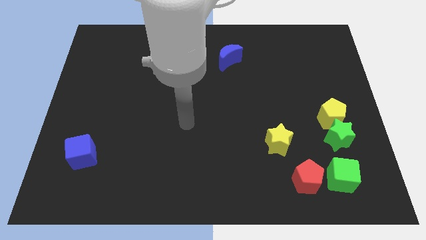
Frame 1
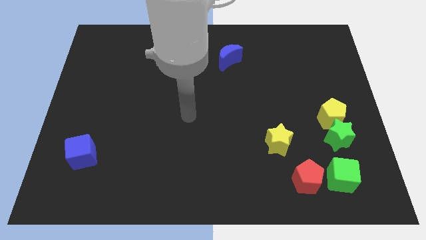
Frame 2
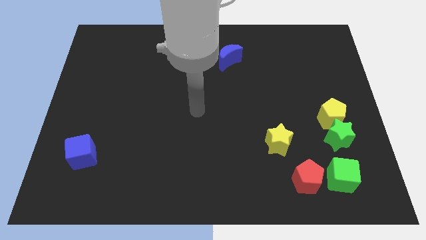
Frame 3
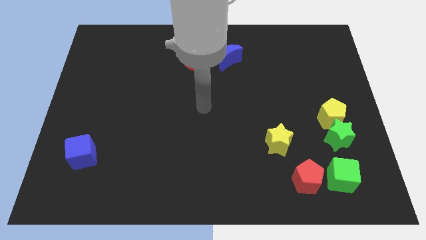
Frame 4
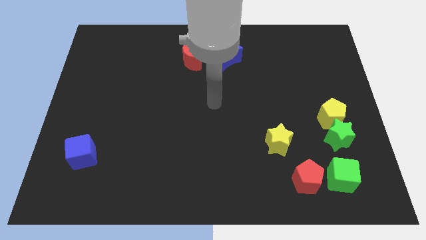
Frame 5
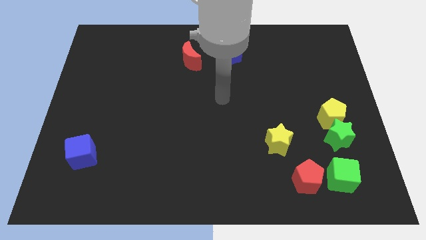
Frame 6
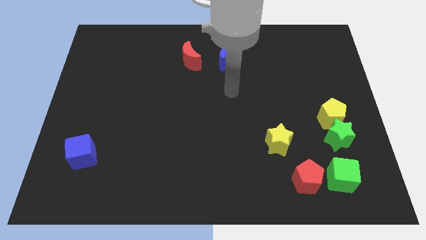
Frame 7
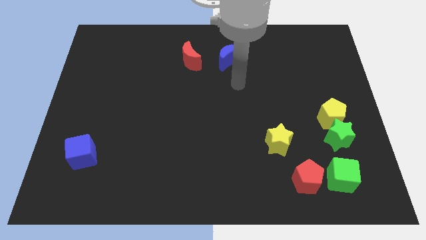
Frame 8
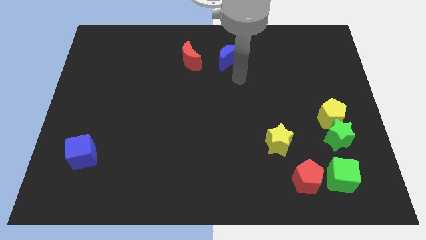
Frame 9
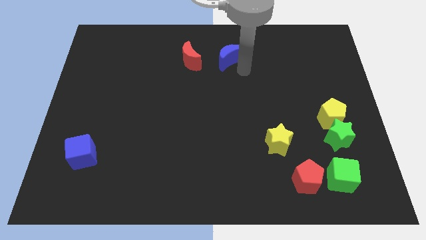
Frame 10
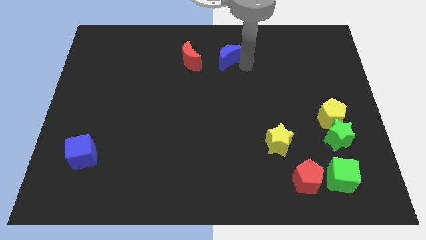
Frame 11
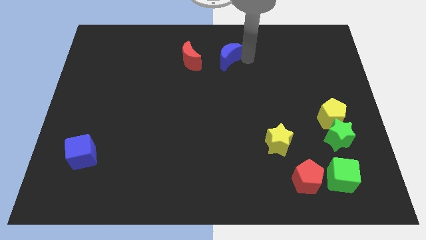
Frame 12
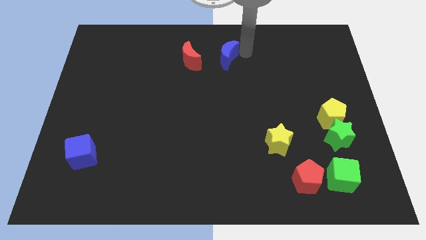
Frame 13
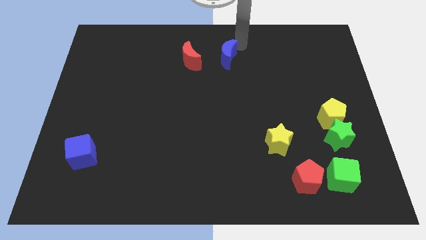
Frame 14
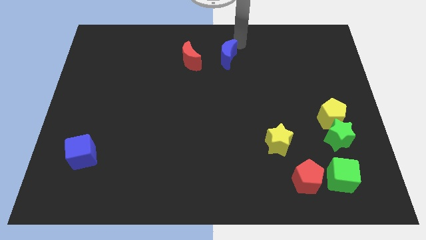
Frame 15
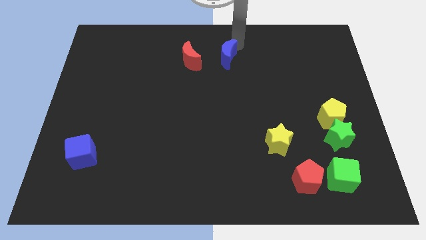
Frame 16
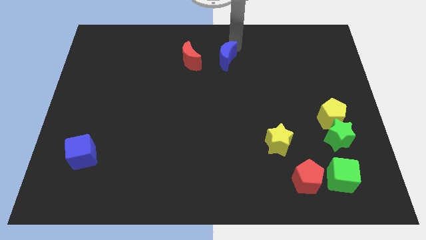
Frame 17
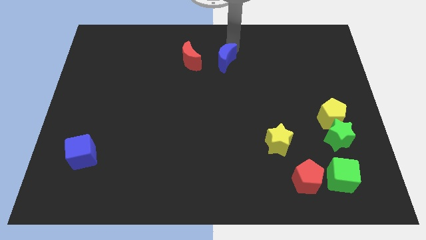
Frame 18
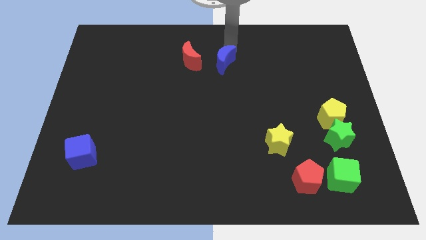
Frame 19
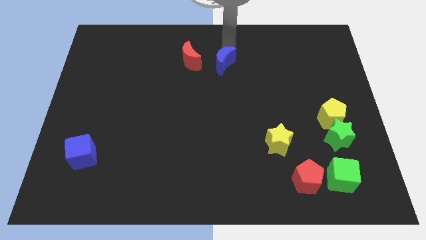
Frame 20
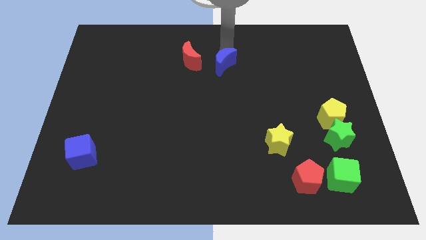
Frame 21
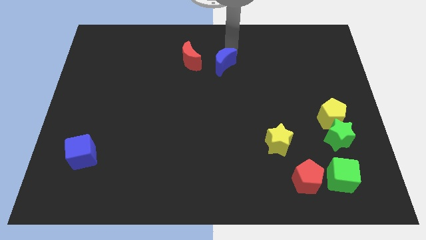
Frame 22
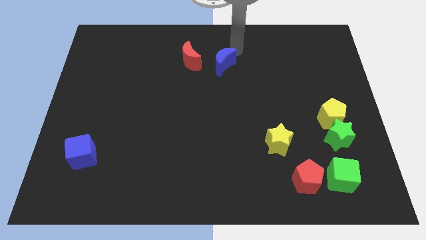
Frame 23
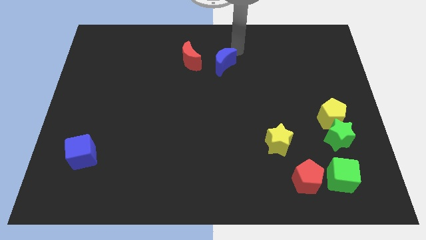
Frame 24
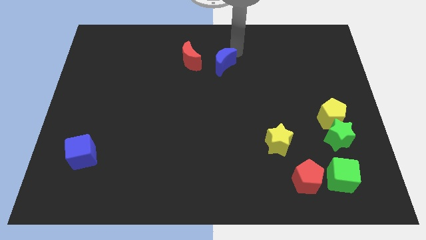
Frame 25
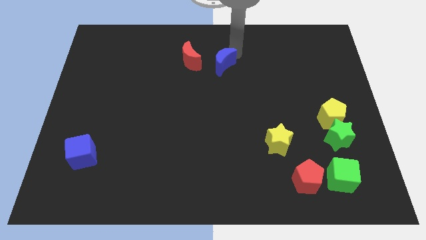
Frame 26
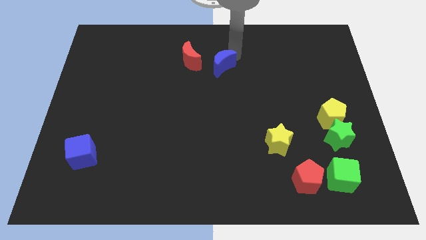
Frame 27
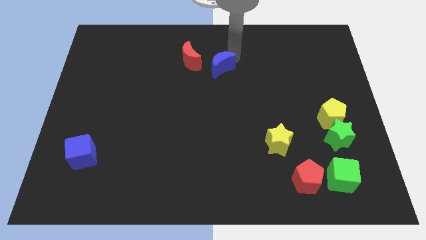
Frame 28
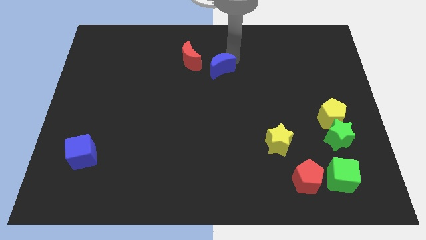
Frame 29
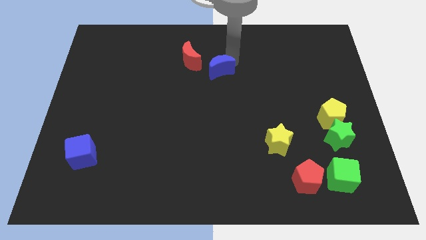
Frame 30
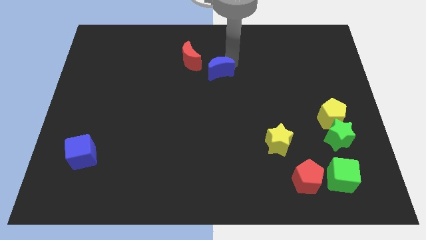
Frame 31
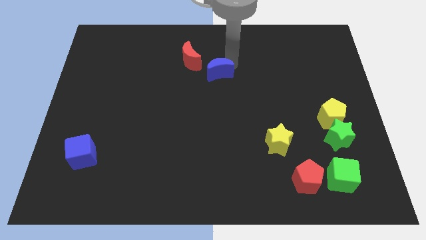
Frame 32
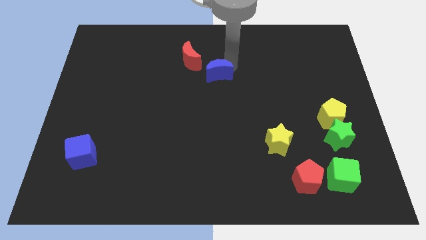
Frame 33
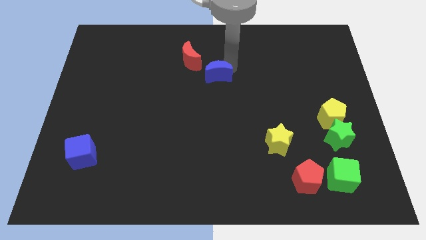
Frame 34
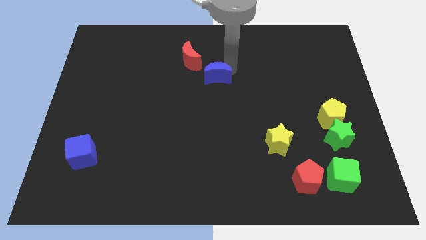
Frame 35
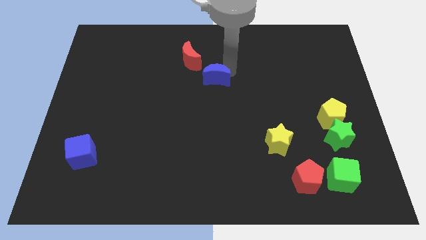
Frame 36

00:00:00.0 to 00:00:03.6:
push the blue moon somewhat downwards and then to the left

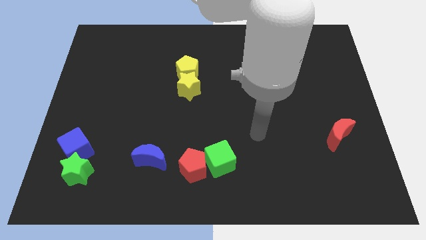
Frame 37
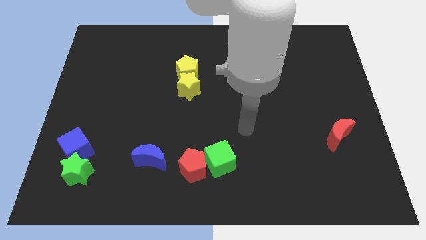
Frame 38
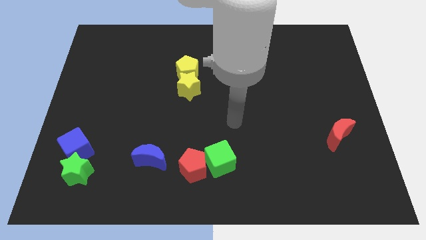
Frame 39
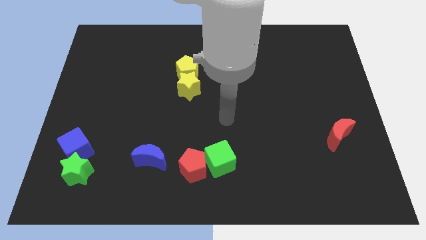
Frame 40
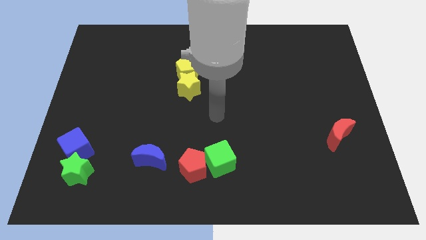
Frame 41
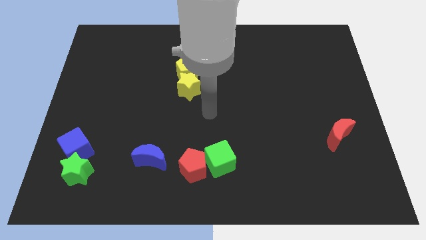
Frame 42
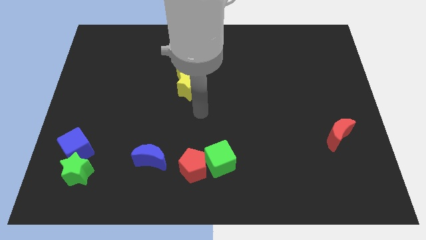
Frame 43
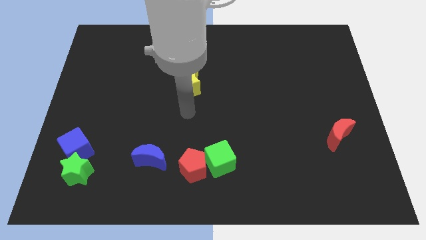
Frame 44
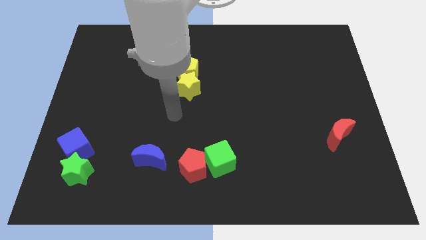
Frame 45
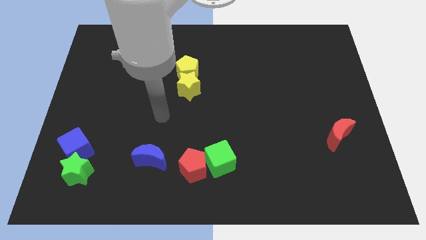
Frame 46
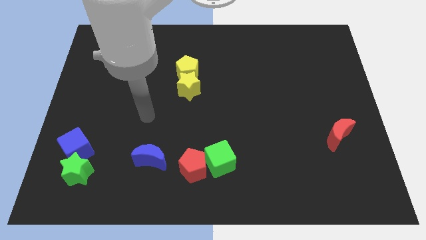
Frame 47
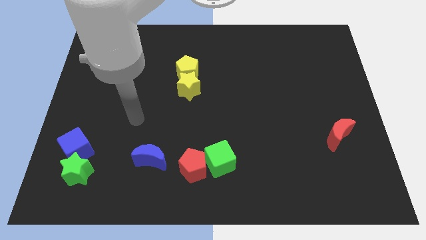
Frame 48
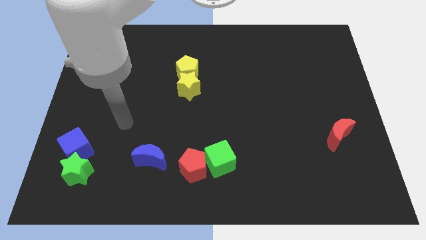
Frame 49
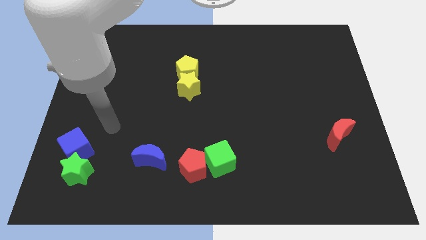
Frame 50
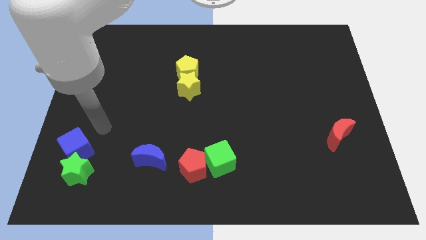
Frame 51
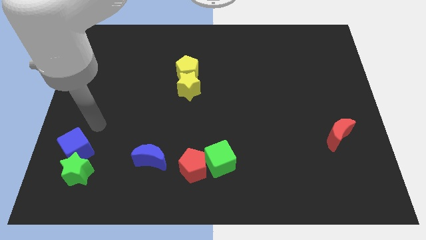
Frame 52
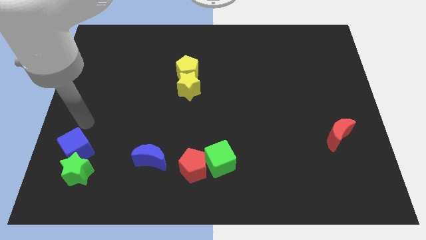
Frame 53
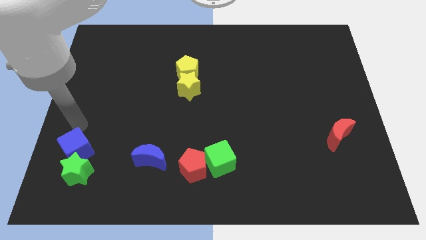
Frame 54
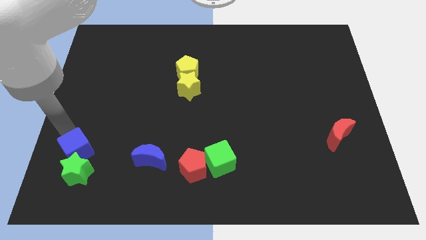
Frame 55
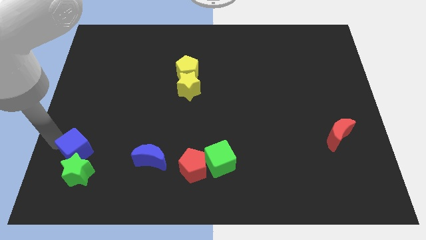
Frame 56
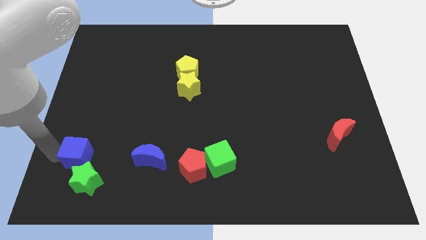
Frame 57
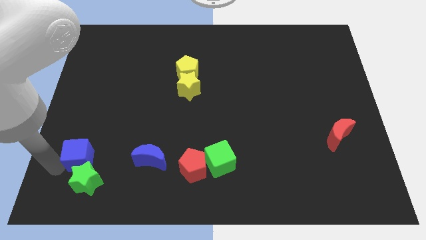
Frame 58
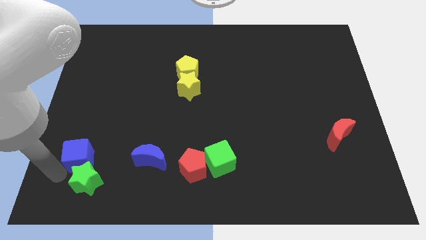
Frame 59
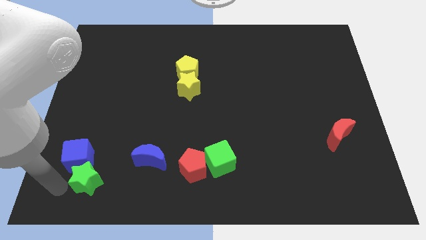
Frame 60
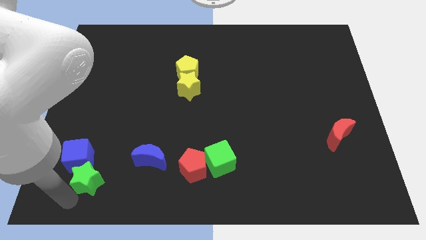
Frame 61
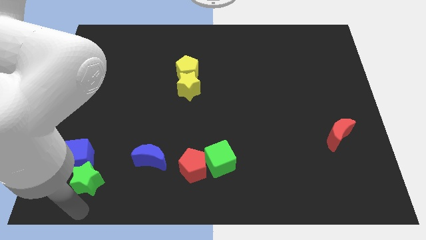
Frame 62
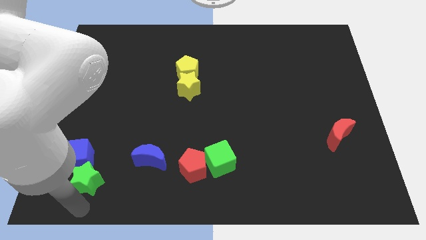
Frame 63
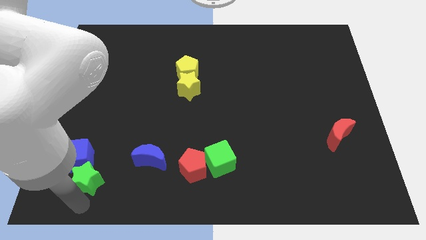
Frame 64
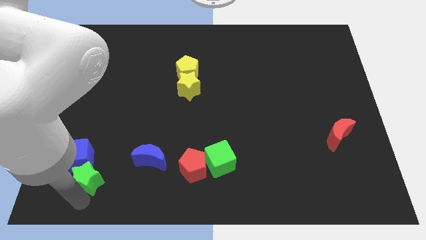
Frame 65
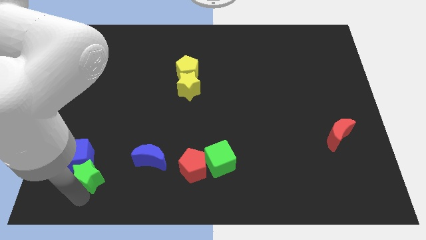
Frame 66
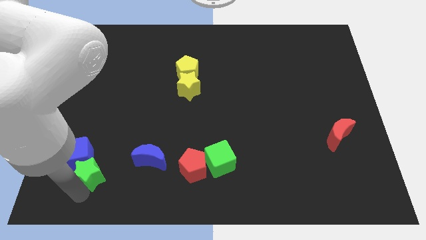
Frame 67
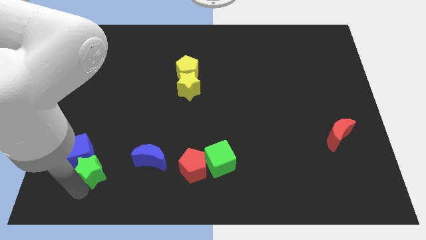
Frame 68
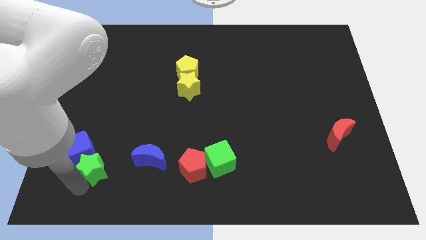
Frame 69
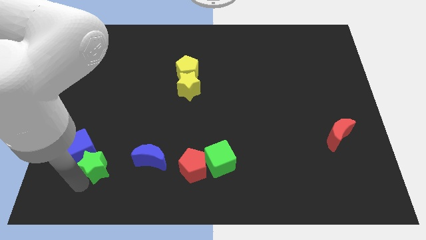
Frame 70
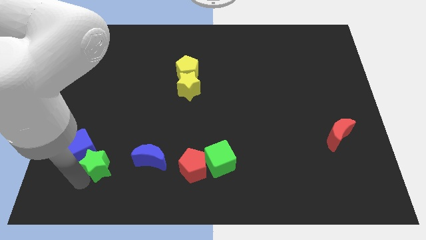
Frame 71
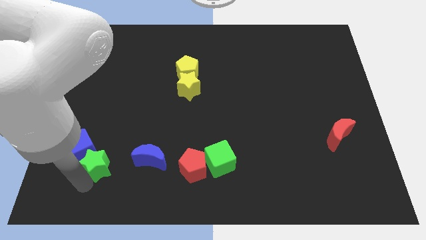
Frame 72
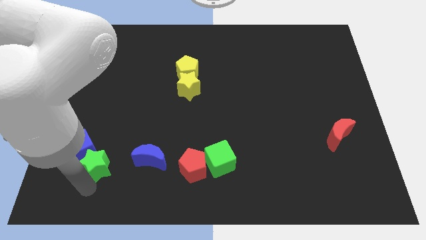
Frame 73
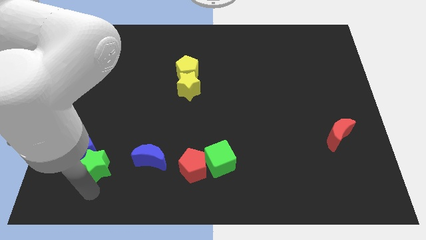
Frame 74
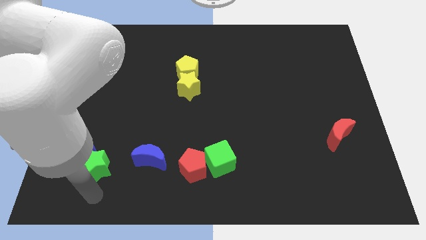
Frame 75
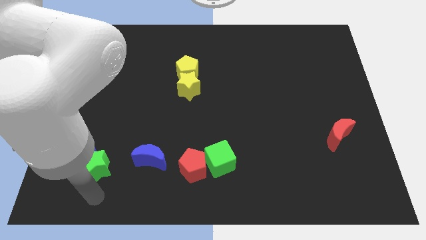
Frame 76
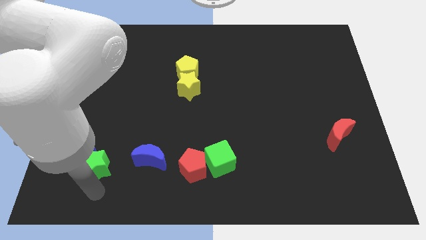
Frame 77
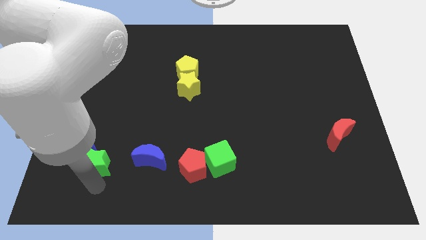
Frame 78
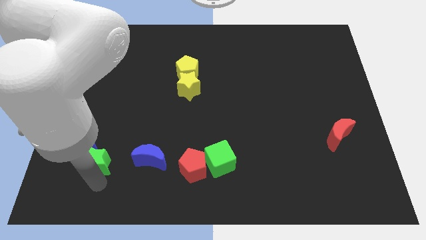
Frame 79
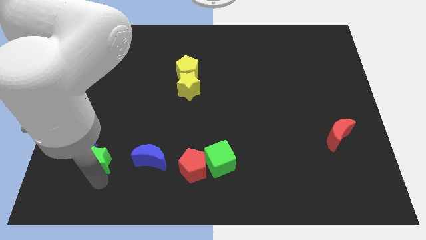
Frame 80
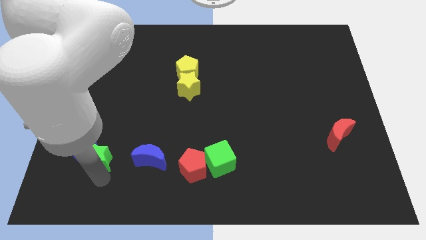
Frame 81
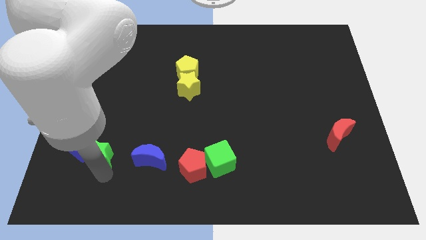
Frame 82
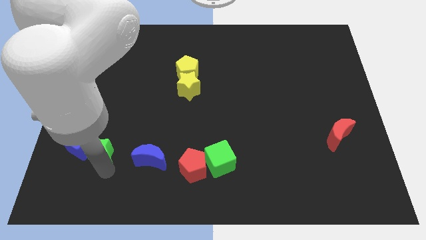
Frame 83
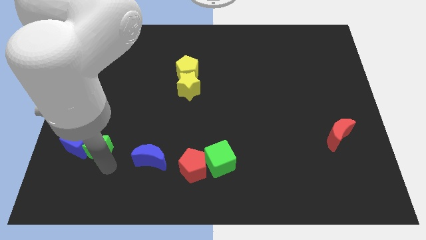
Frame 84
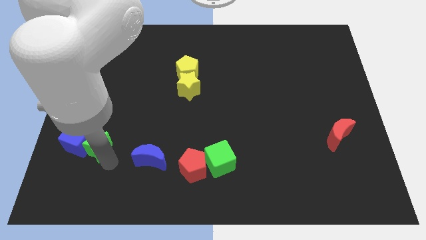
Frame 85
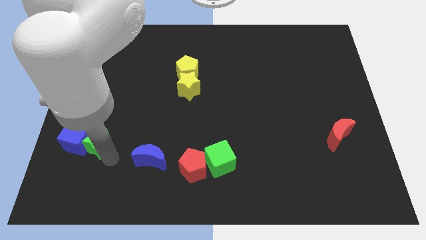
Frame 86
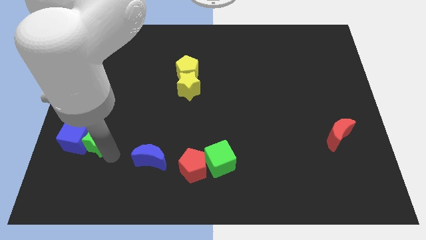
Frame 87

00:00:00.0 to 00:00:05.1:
push the green star slightly up
